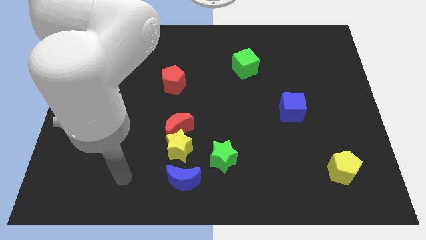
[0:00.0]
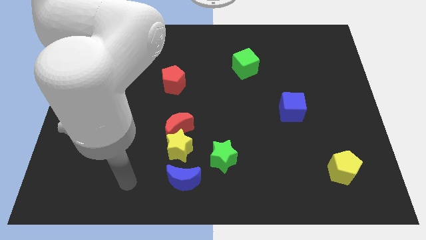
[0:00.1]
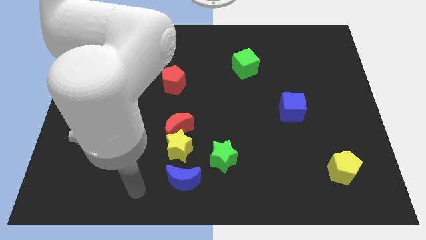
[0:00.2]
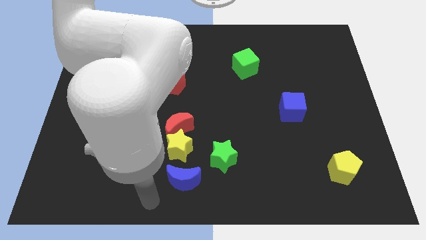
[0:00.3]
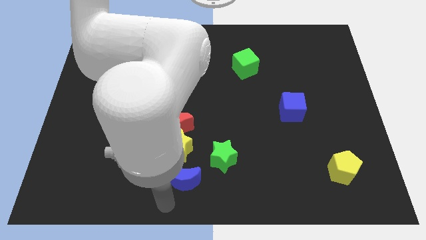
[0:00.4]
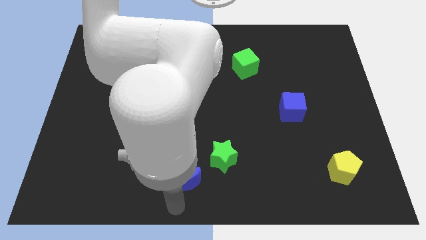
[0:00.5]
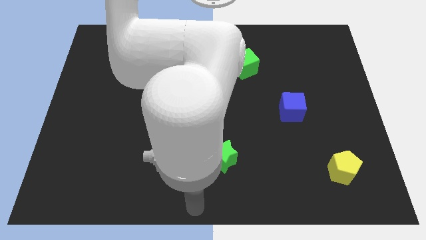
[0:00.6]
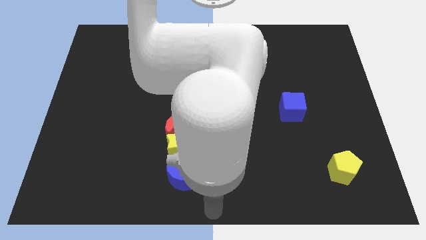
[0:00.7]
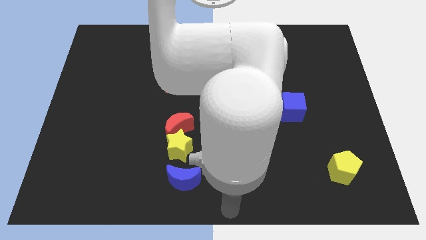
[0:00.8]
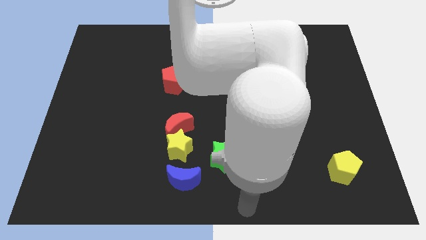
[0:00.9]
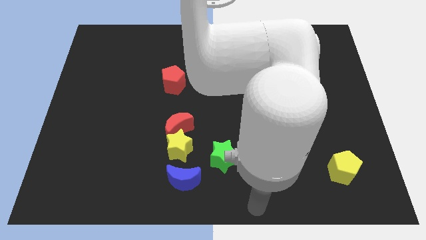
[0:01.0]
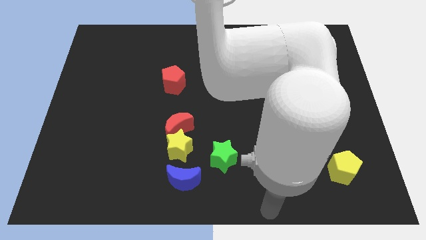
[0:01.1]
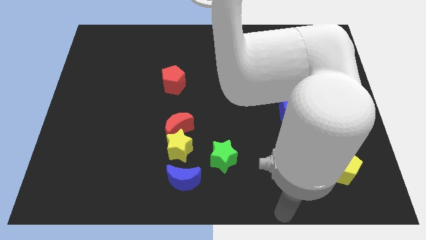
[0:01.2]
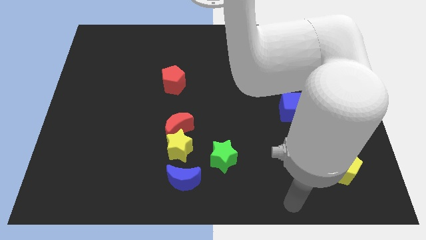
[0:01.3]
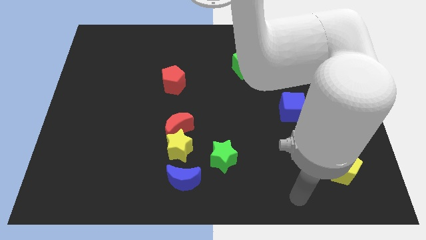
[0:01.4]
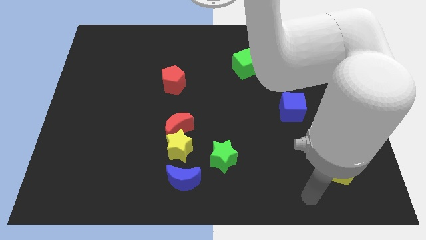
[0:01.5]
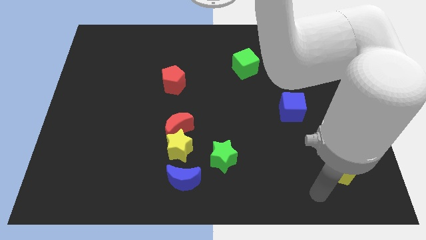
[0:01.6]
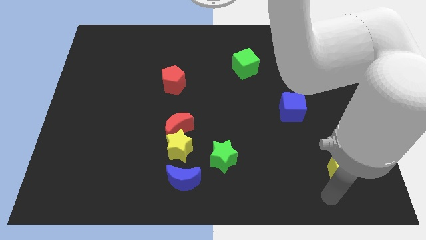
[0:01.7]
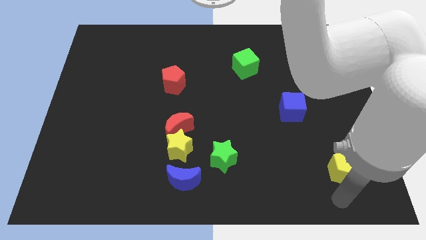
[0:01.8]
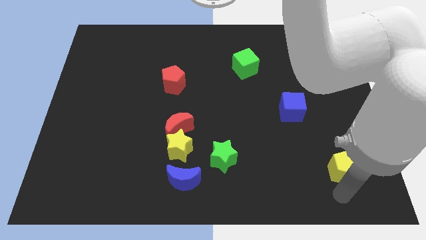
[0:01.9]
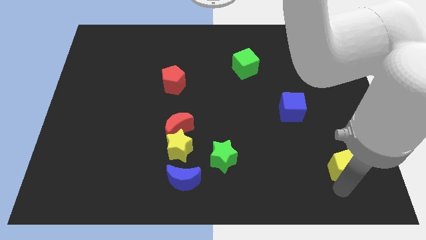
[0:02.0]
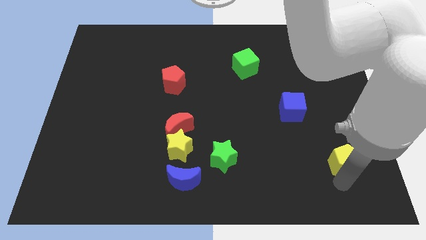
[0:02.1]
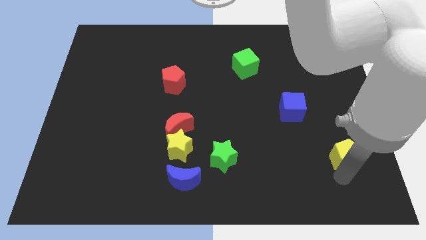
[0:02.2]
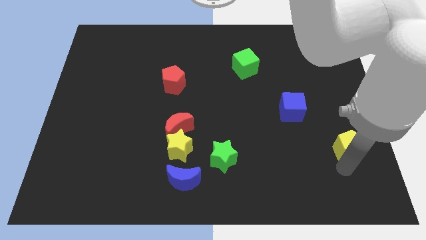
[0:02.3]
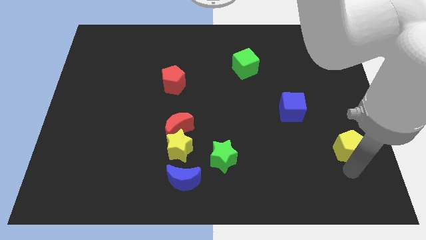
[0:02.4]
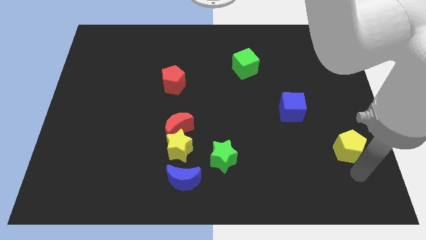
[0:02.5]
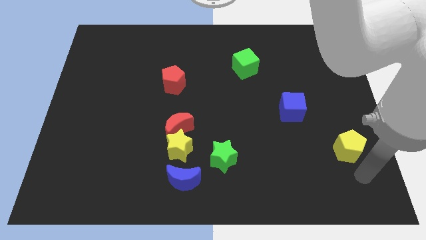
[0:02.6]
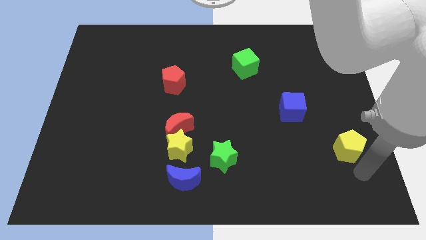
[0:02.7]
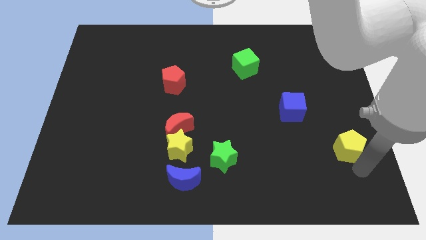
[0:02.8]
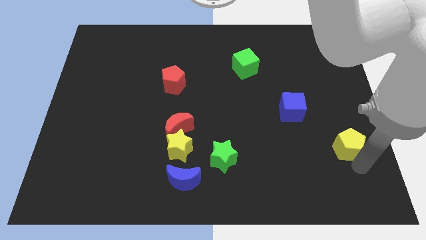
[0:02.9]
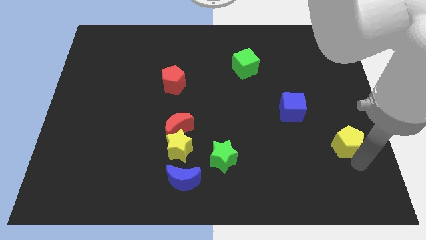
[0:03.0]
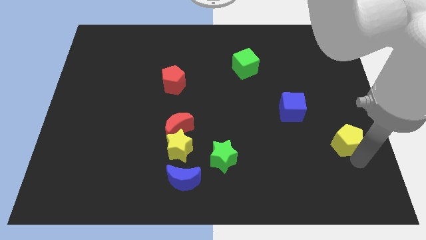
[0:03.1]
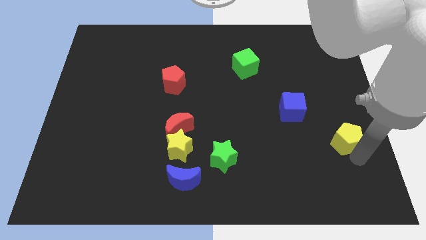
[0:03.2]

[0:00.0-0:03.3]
slide the yellow pentagon up somewhat

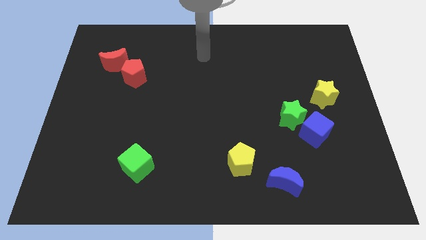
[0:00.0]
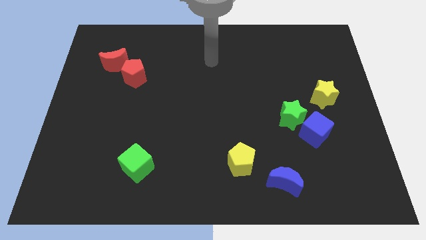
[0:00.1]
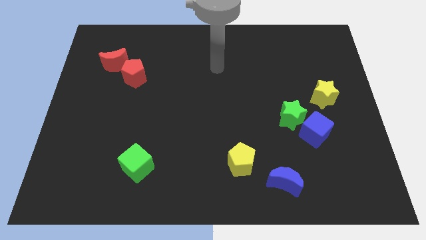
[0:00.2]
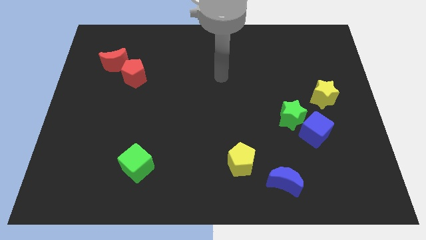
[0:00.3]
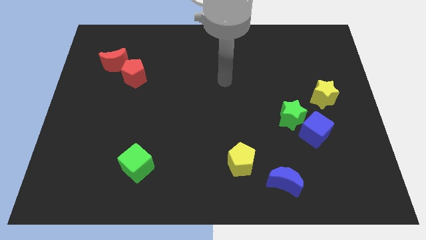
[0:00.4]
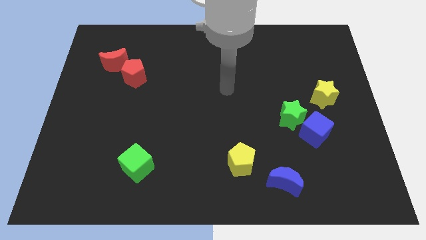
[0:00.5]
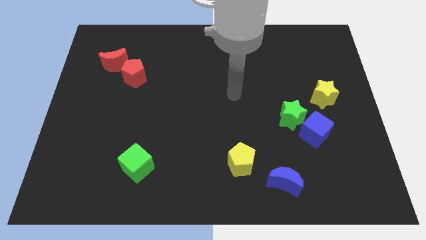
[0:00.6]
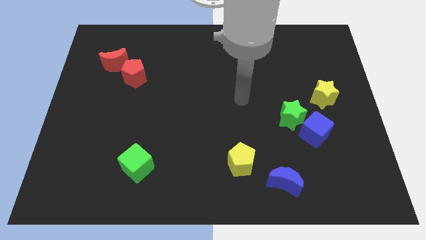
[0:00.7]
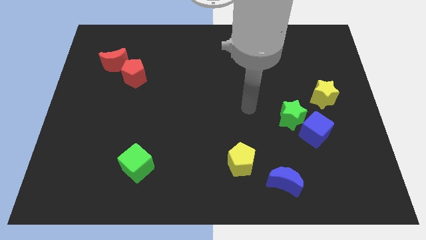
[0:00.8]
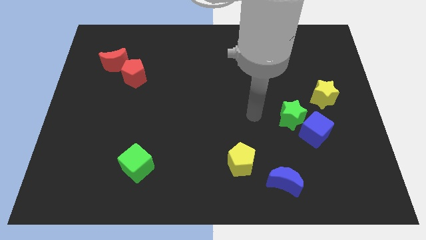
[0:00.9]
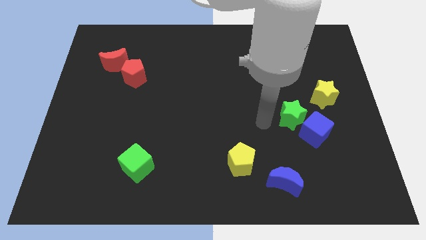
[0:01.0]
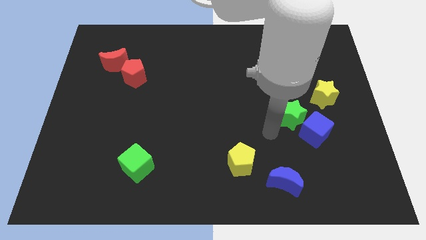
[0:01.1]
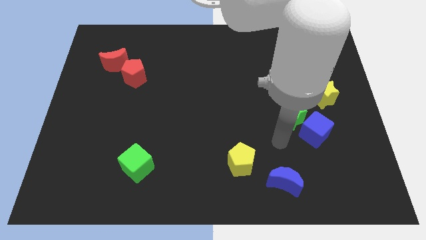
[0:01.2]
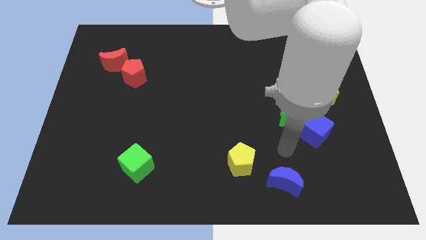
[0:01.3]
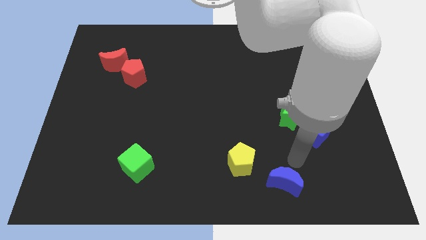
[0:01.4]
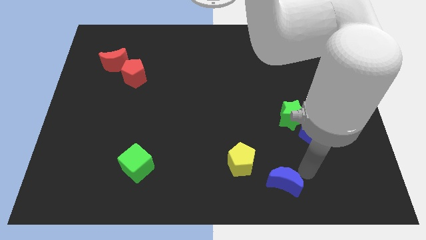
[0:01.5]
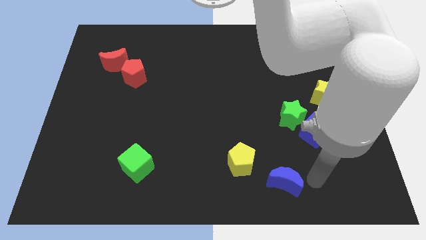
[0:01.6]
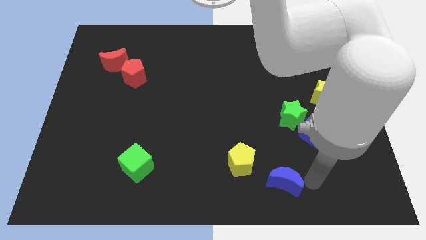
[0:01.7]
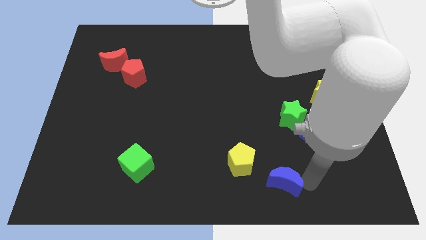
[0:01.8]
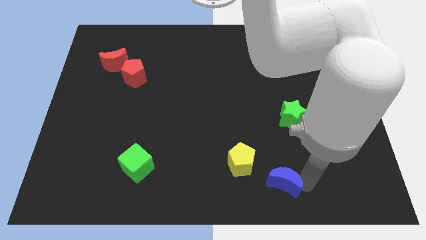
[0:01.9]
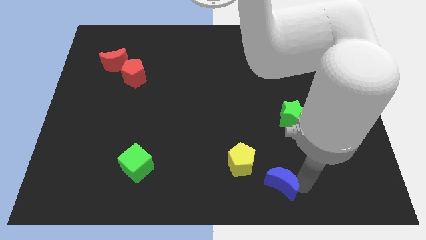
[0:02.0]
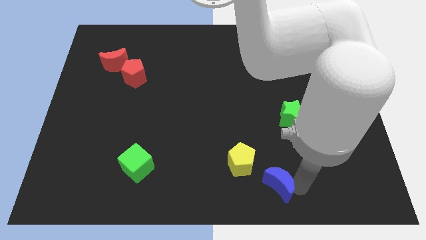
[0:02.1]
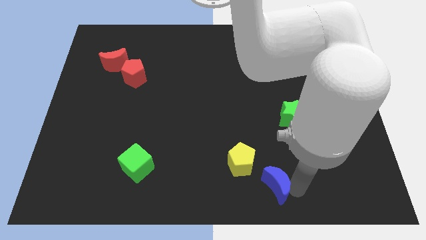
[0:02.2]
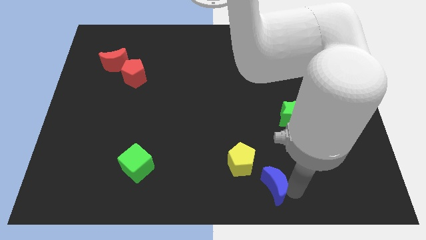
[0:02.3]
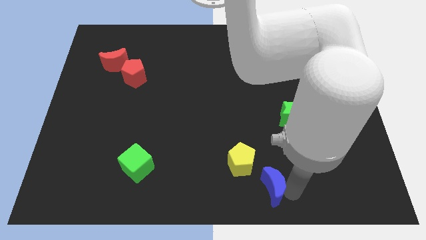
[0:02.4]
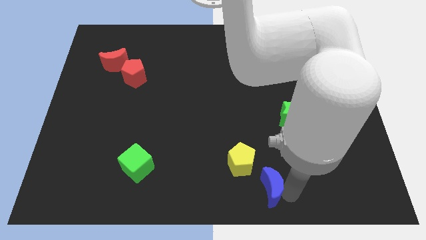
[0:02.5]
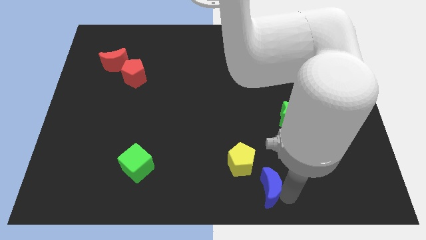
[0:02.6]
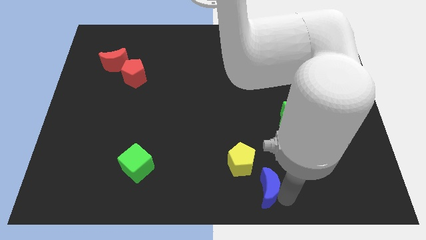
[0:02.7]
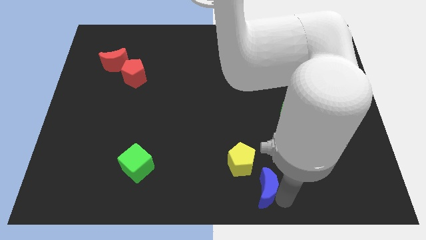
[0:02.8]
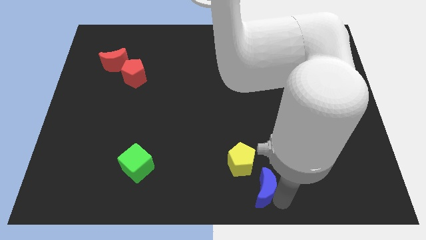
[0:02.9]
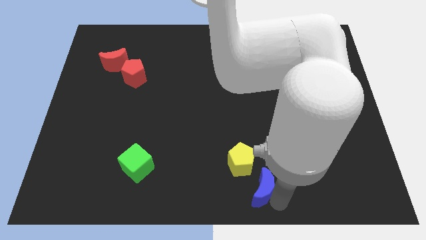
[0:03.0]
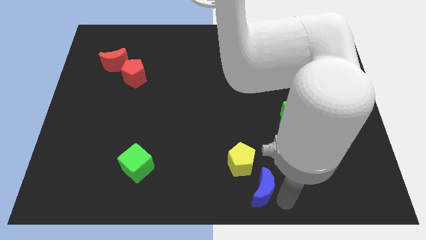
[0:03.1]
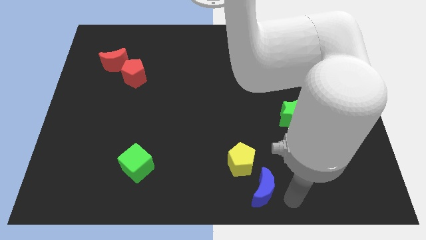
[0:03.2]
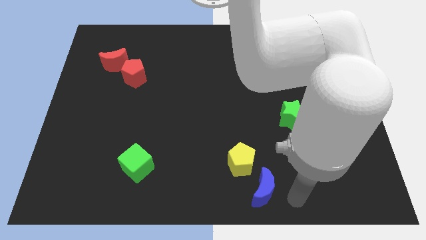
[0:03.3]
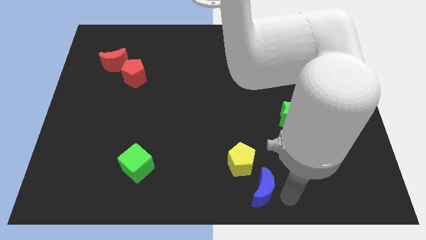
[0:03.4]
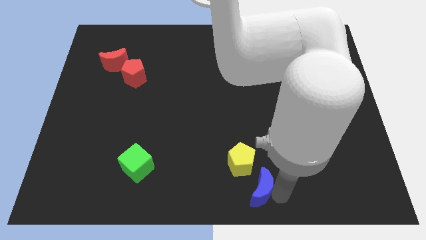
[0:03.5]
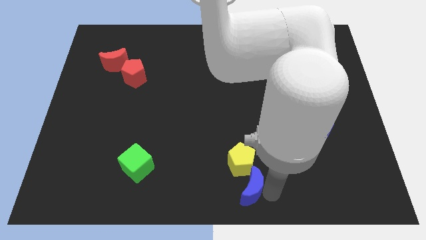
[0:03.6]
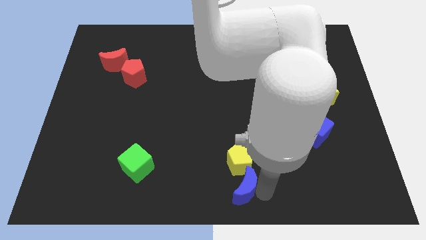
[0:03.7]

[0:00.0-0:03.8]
slightly move the blue moon left

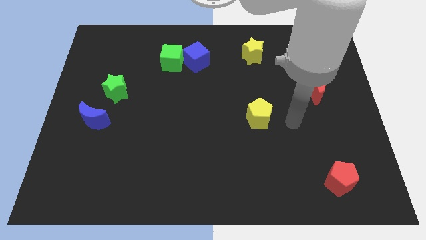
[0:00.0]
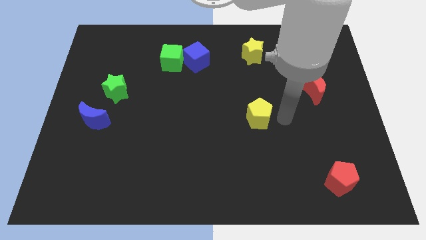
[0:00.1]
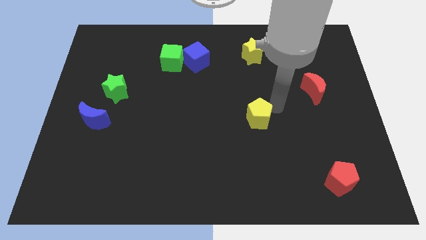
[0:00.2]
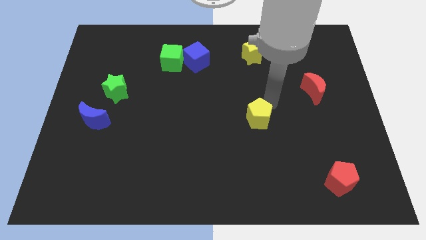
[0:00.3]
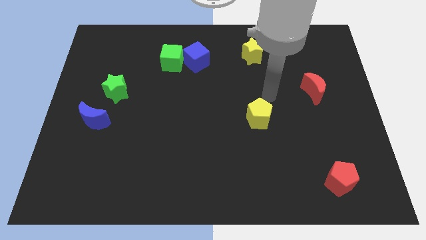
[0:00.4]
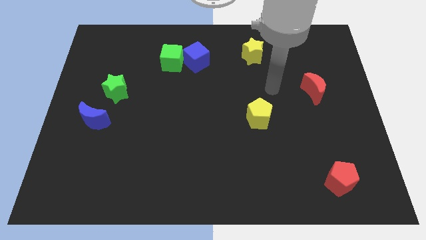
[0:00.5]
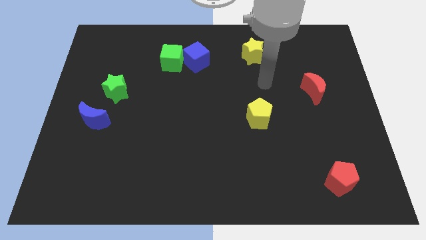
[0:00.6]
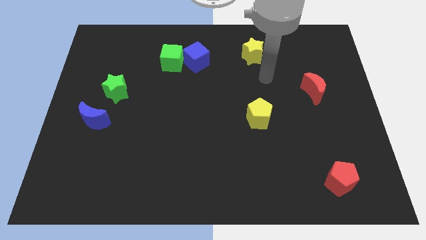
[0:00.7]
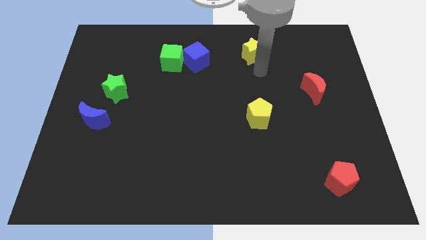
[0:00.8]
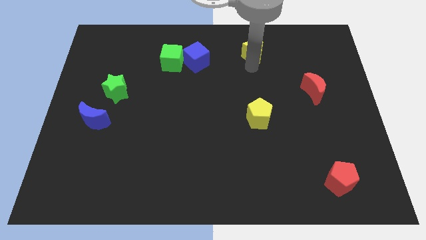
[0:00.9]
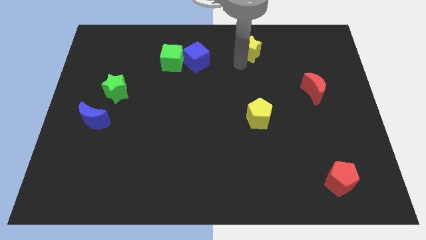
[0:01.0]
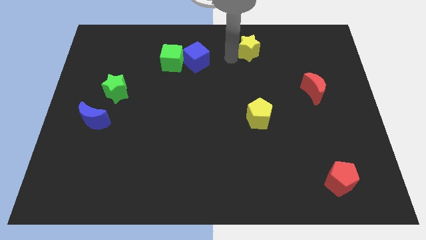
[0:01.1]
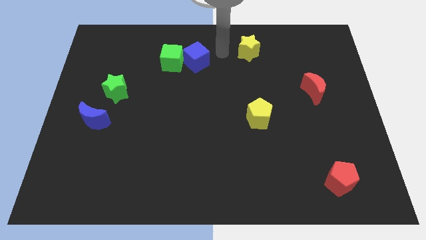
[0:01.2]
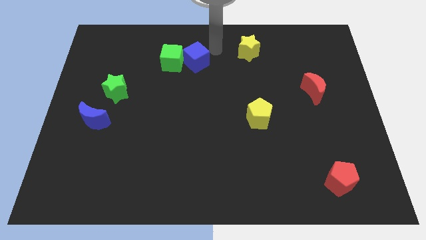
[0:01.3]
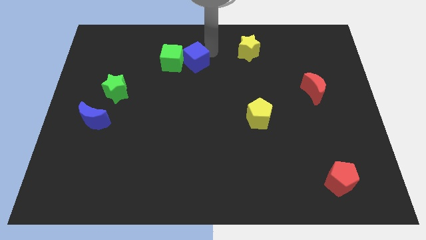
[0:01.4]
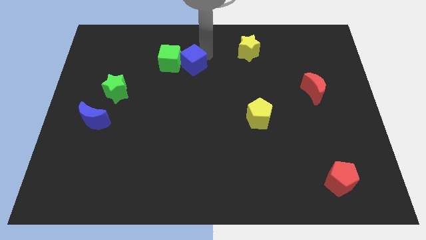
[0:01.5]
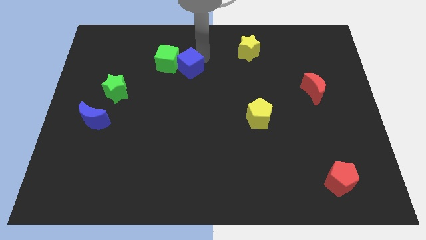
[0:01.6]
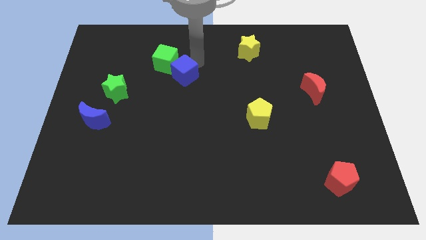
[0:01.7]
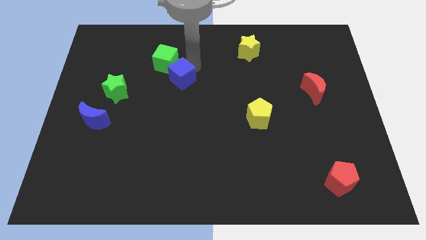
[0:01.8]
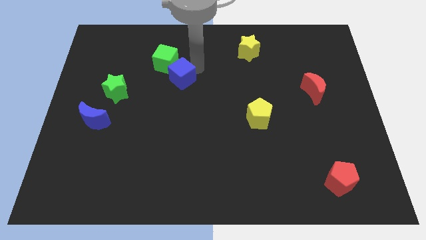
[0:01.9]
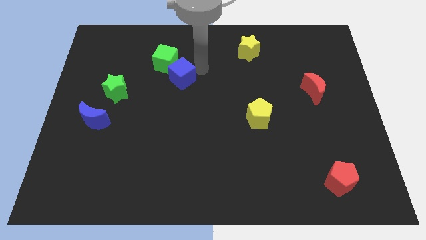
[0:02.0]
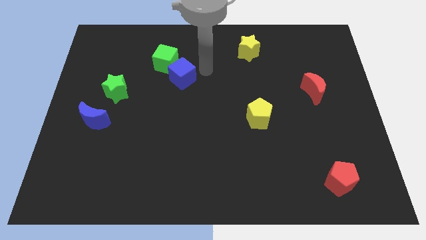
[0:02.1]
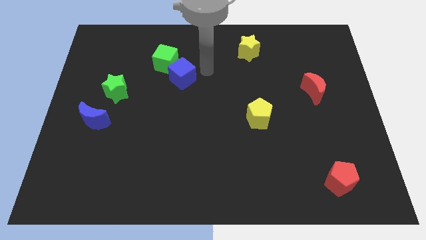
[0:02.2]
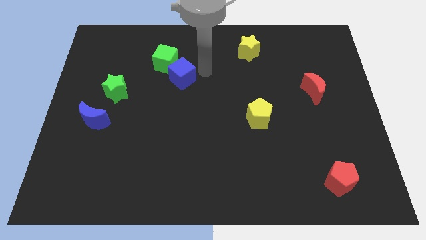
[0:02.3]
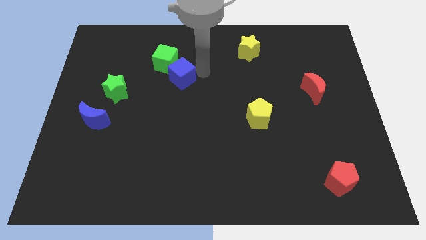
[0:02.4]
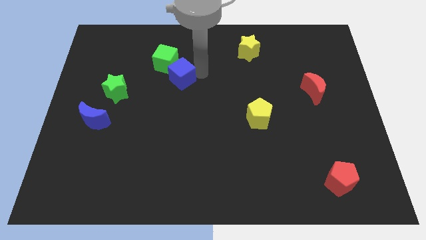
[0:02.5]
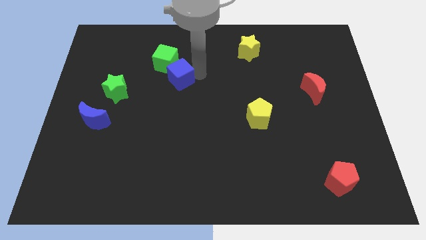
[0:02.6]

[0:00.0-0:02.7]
move the blue cube a little bit downwards and then to the left
